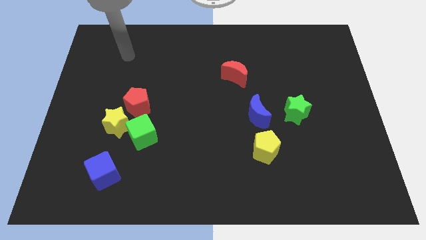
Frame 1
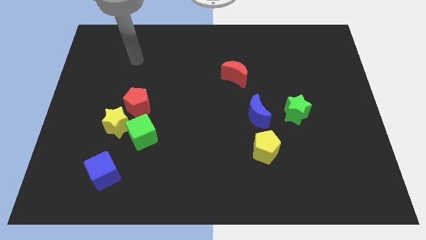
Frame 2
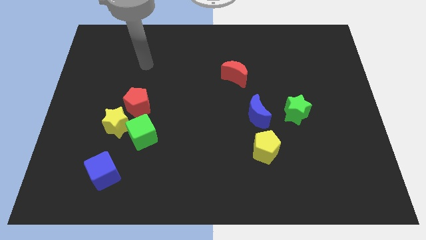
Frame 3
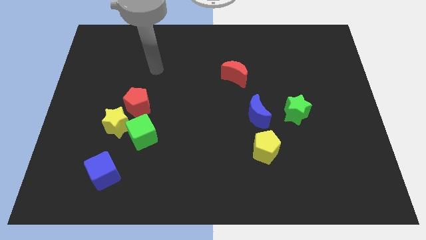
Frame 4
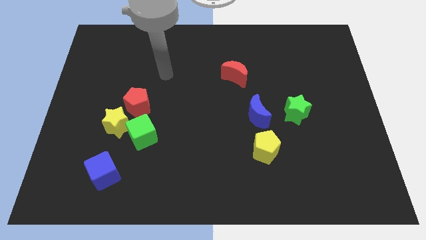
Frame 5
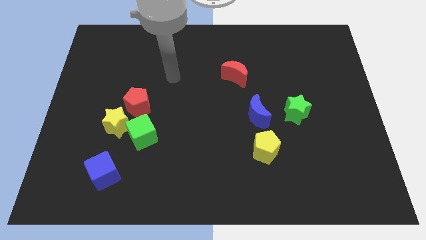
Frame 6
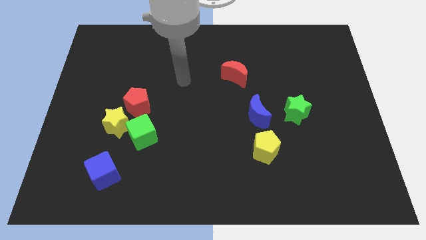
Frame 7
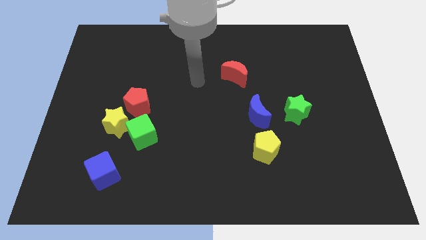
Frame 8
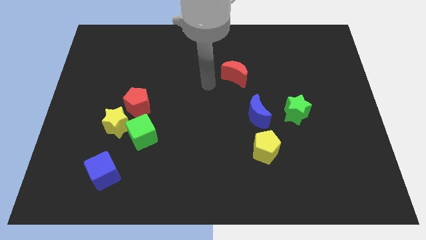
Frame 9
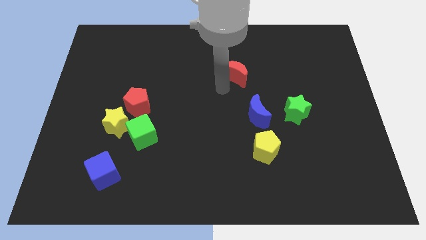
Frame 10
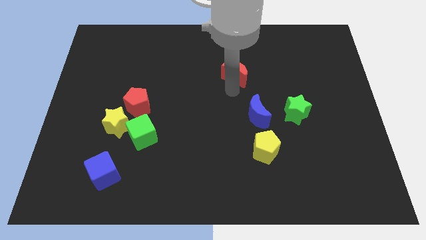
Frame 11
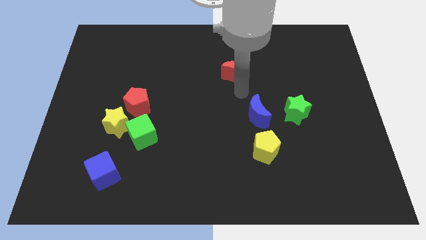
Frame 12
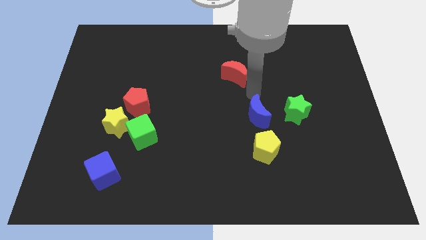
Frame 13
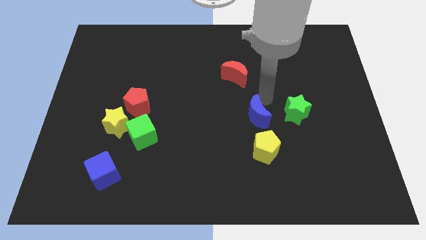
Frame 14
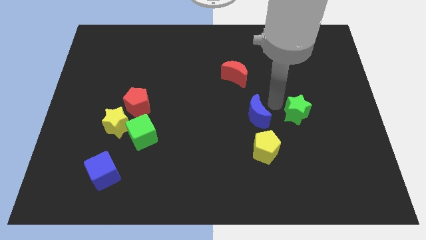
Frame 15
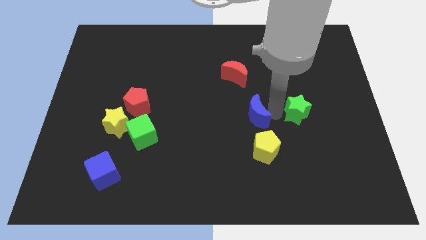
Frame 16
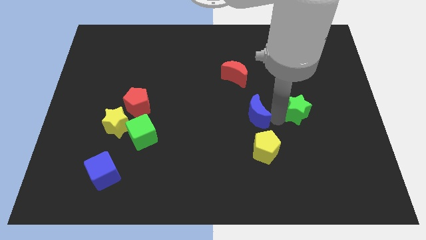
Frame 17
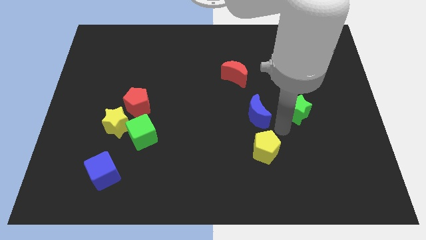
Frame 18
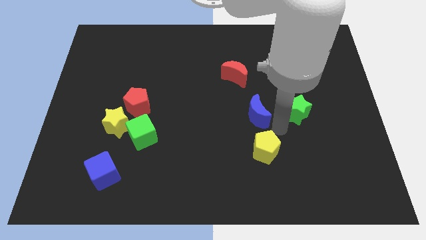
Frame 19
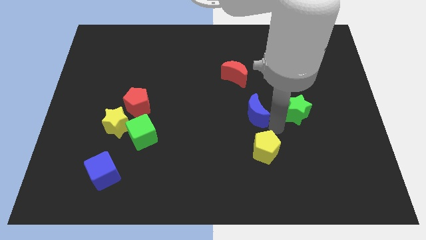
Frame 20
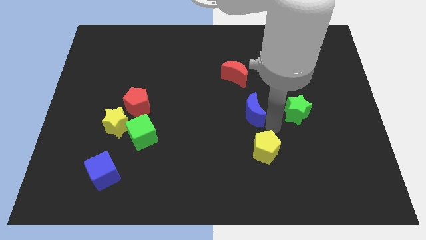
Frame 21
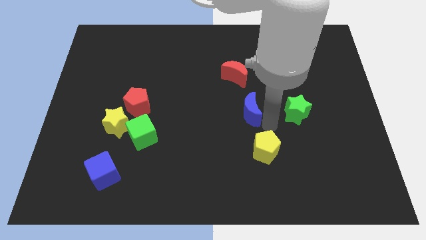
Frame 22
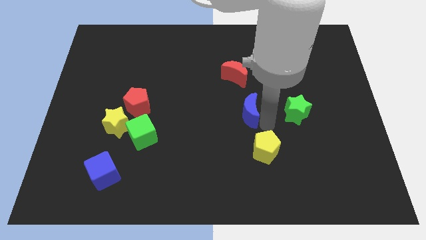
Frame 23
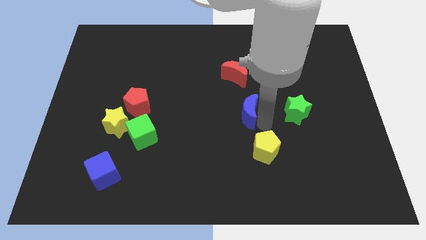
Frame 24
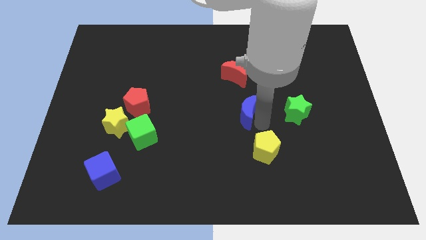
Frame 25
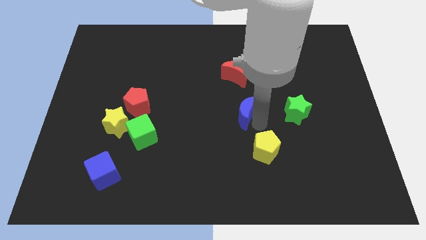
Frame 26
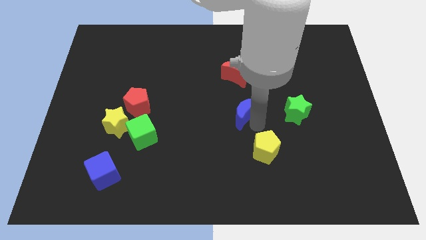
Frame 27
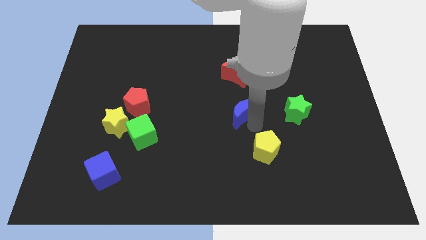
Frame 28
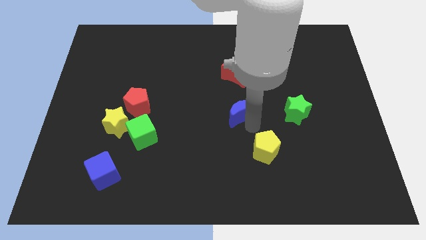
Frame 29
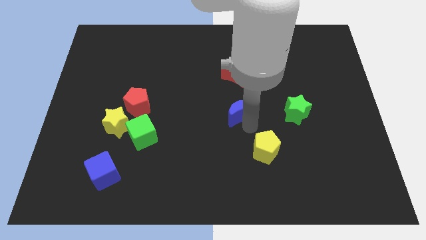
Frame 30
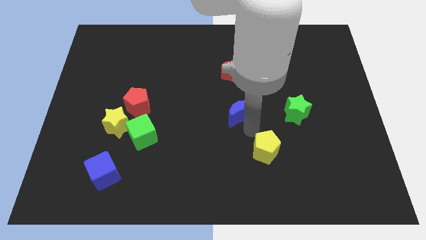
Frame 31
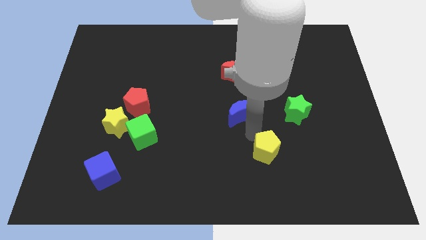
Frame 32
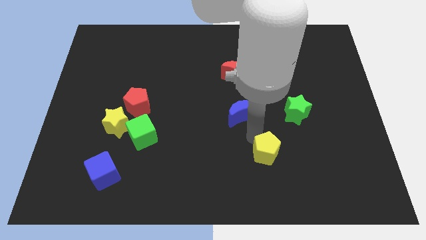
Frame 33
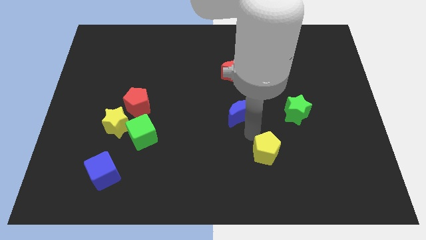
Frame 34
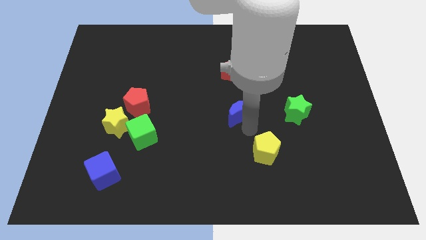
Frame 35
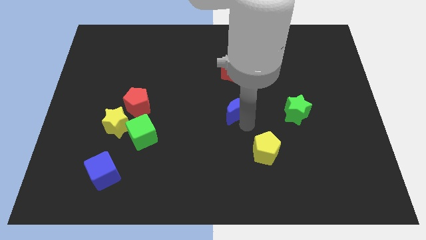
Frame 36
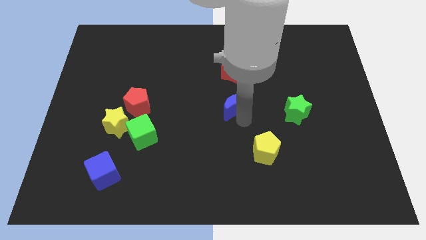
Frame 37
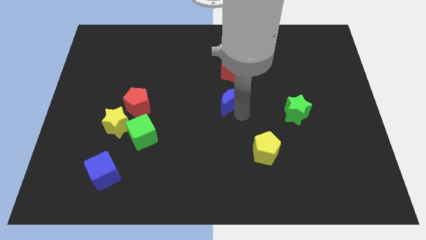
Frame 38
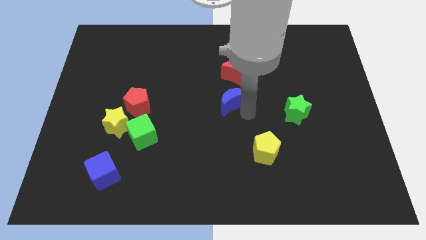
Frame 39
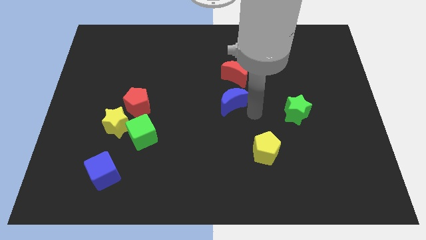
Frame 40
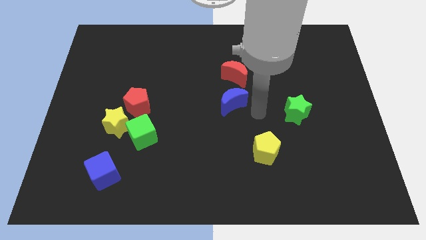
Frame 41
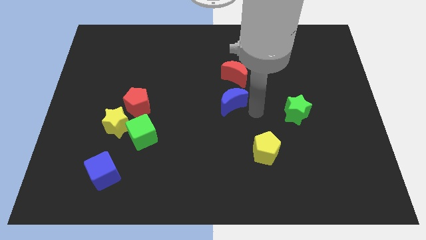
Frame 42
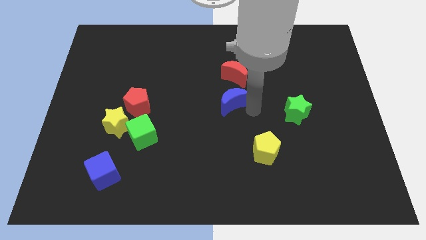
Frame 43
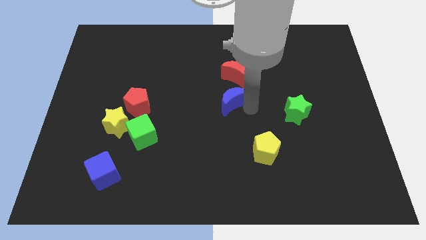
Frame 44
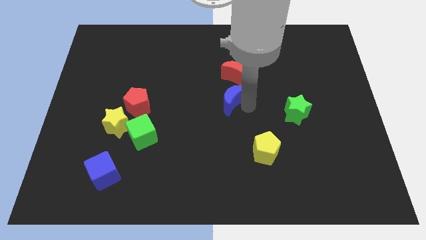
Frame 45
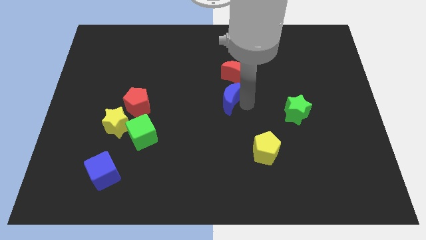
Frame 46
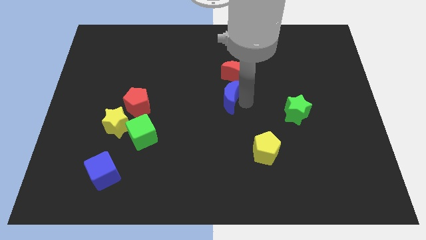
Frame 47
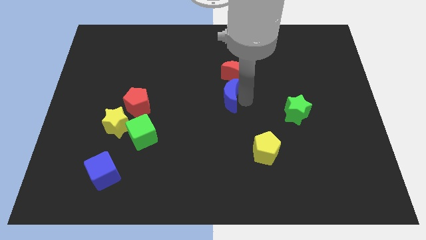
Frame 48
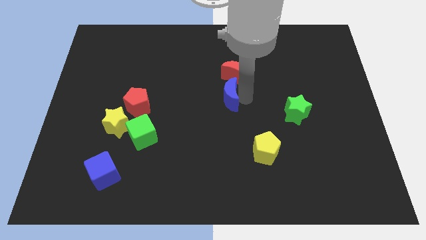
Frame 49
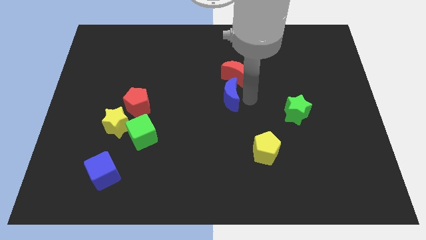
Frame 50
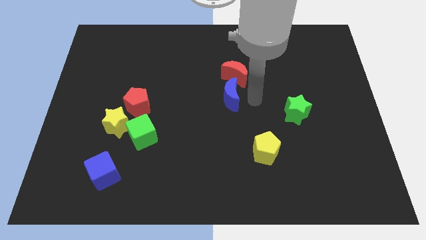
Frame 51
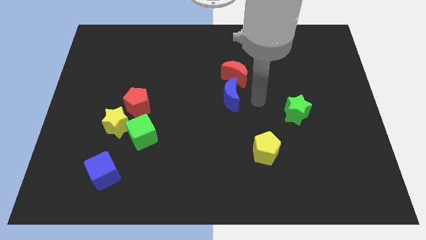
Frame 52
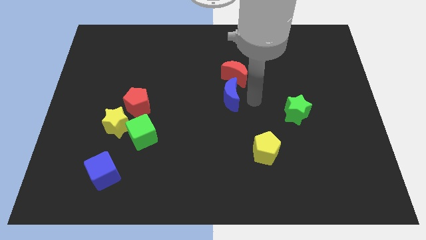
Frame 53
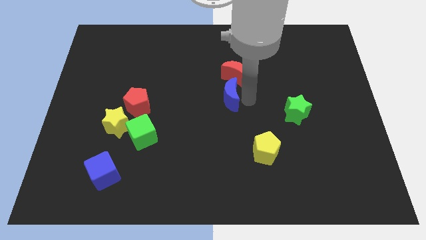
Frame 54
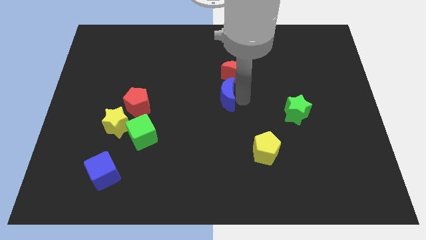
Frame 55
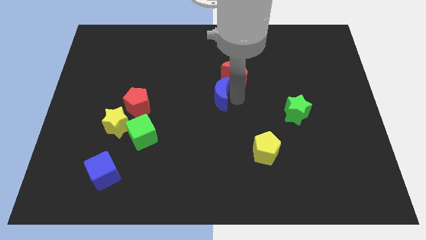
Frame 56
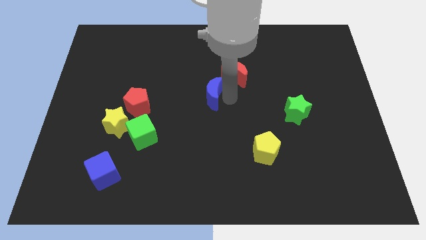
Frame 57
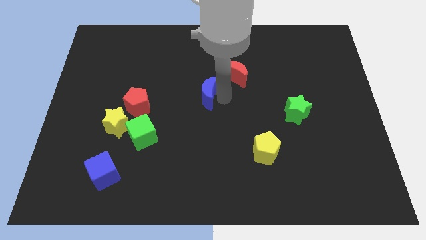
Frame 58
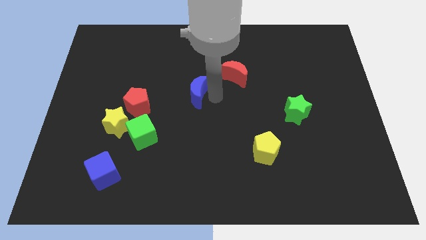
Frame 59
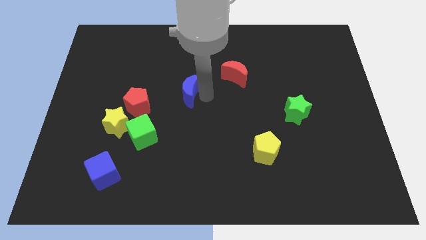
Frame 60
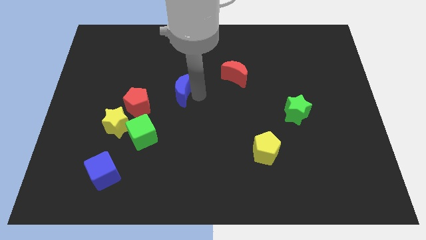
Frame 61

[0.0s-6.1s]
push the blue moon to the top right of the red pentagon

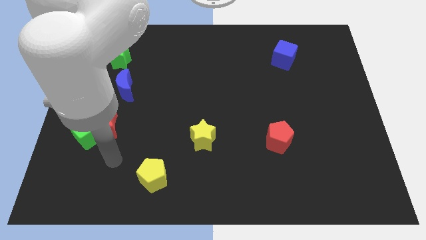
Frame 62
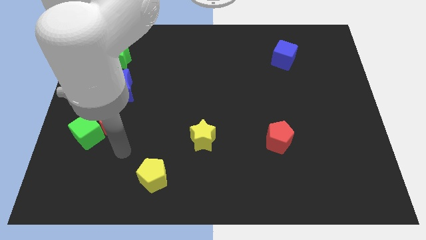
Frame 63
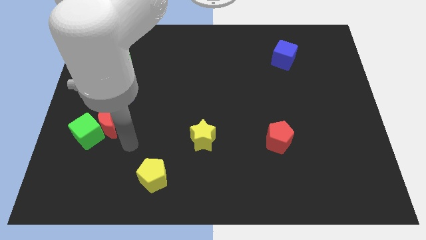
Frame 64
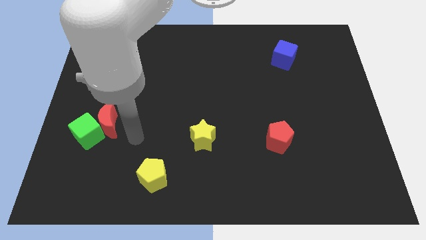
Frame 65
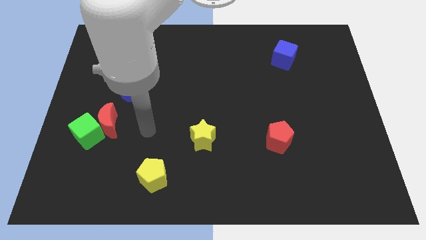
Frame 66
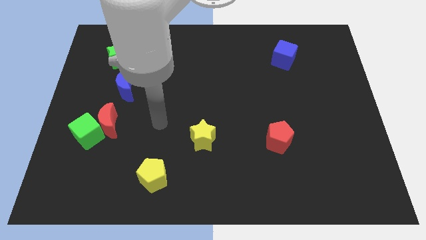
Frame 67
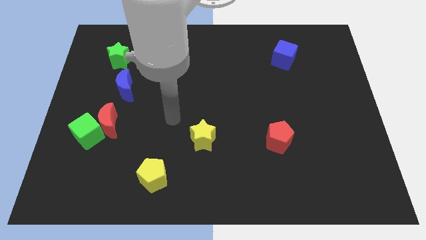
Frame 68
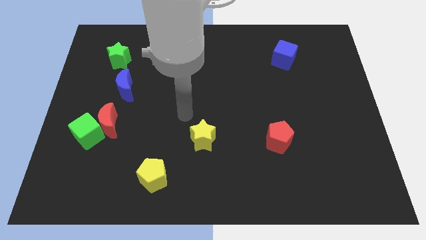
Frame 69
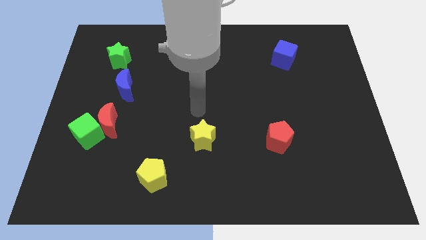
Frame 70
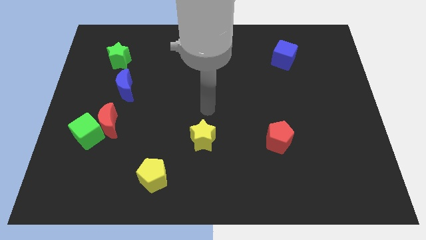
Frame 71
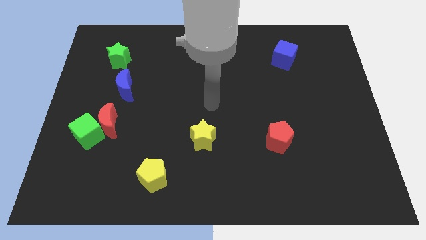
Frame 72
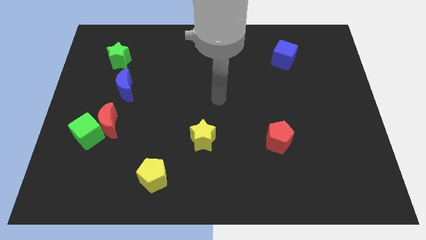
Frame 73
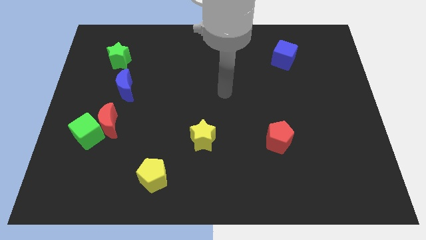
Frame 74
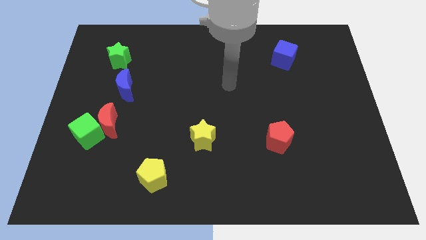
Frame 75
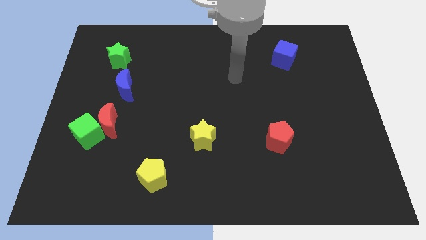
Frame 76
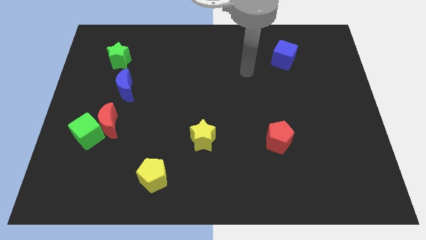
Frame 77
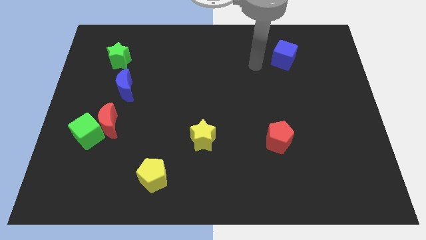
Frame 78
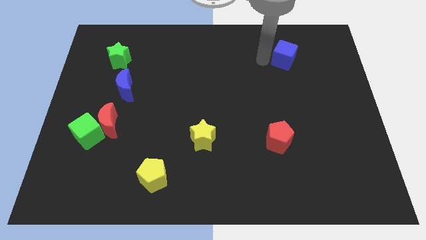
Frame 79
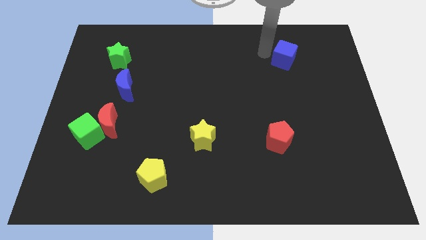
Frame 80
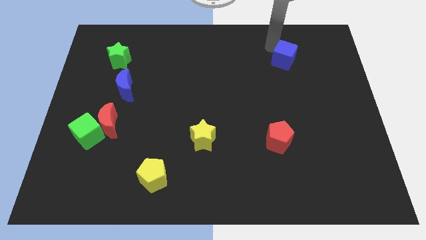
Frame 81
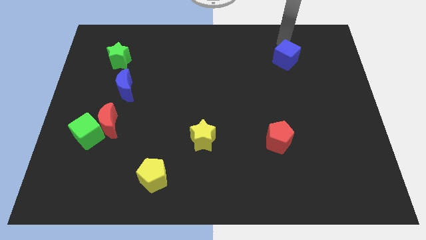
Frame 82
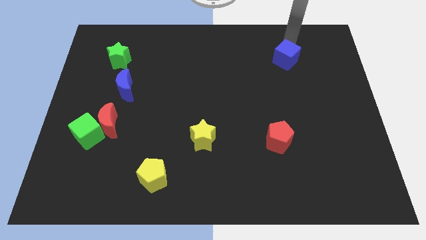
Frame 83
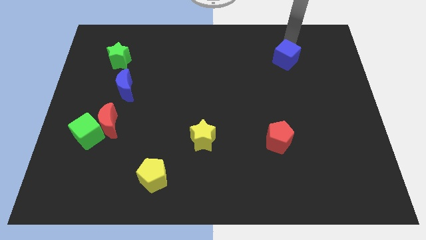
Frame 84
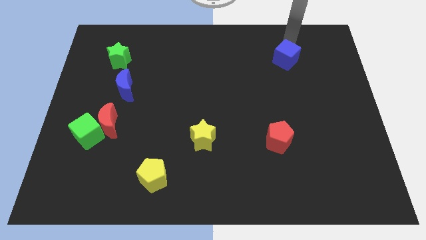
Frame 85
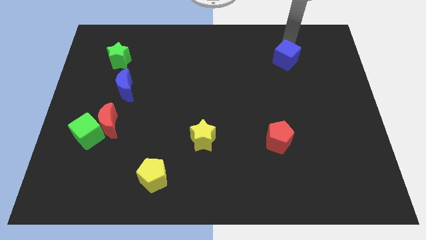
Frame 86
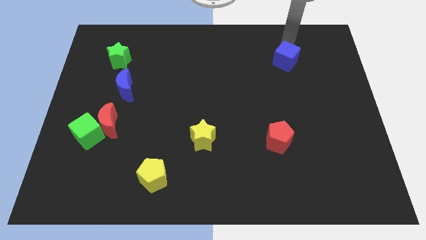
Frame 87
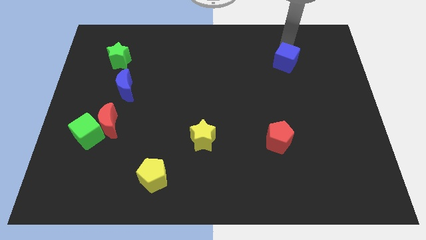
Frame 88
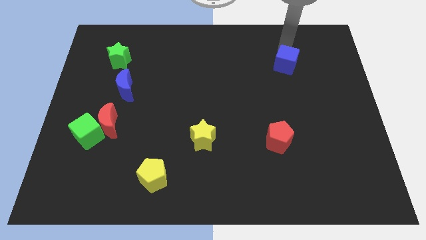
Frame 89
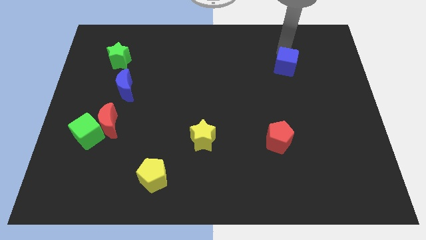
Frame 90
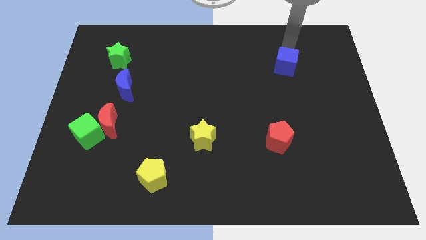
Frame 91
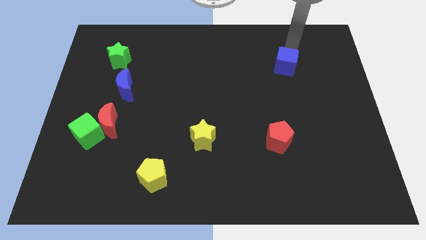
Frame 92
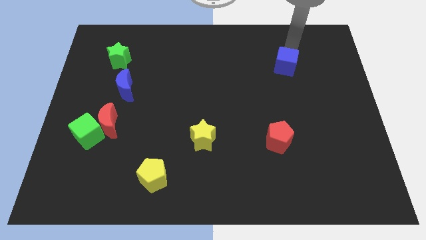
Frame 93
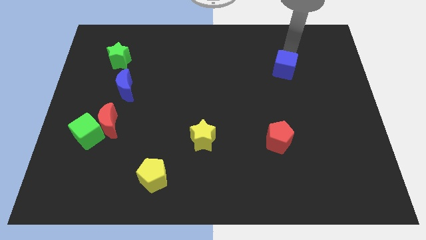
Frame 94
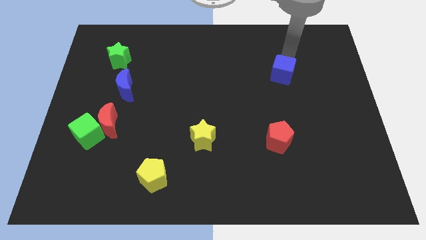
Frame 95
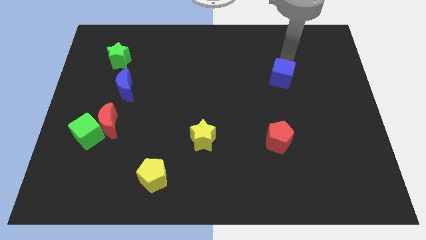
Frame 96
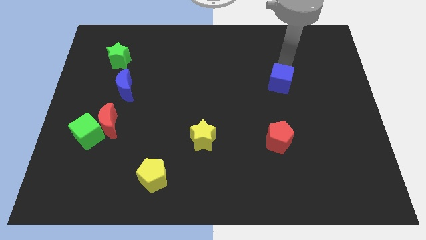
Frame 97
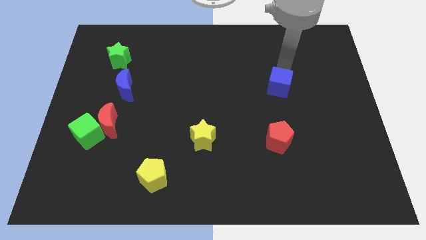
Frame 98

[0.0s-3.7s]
push the blue cube above the red pentagon
